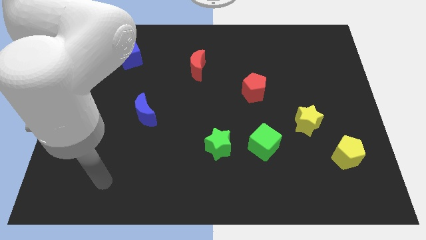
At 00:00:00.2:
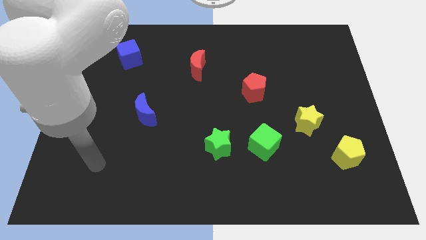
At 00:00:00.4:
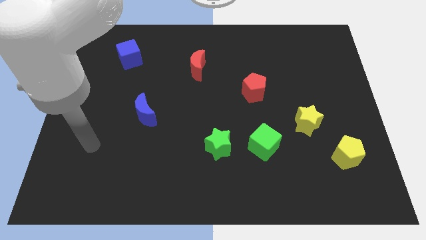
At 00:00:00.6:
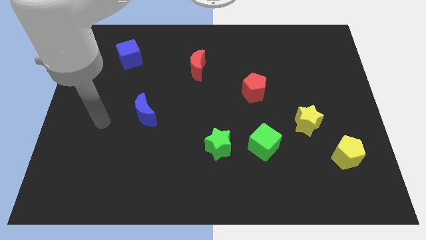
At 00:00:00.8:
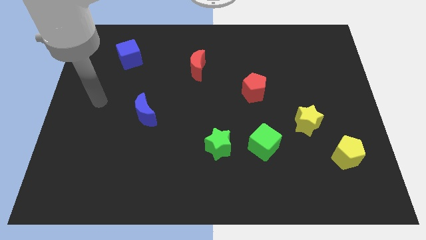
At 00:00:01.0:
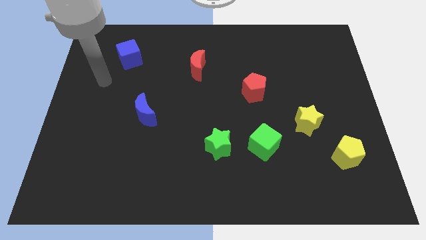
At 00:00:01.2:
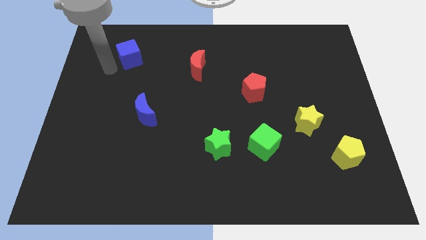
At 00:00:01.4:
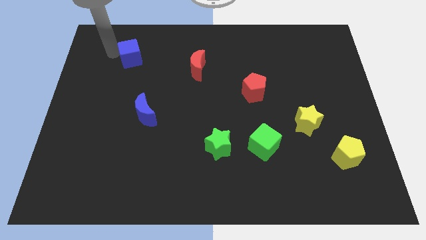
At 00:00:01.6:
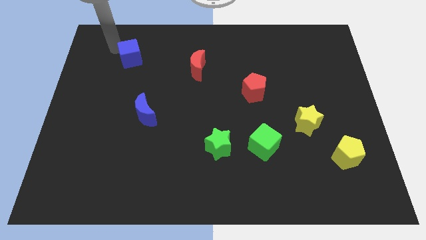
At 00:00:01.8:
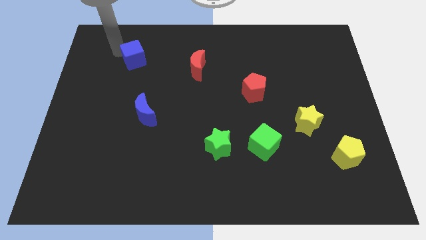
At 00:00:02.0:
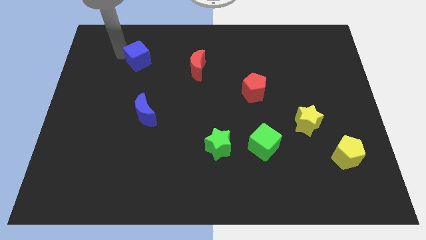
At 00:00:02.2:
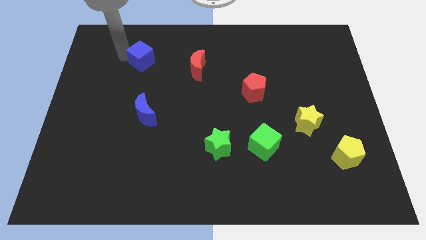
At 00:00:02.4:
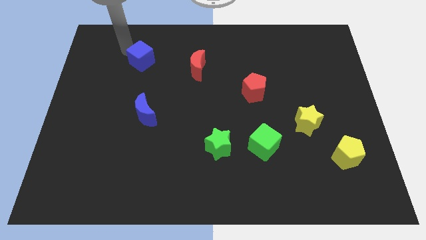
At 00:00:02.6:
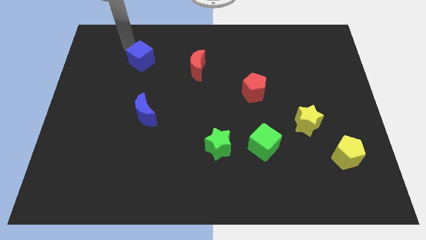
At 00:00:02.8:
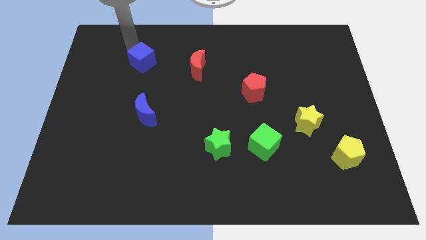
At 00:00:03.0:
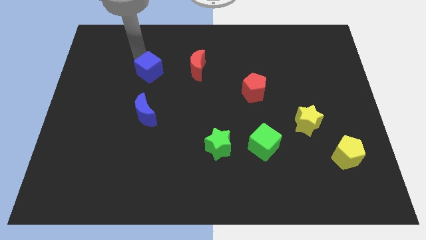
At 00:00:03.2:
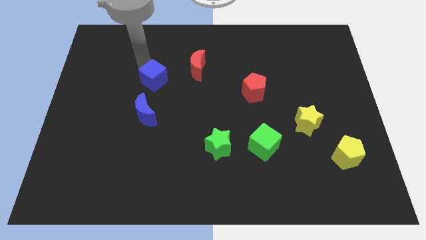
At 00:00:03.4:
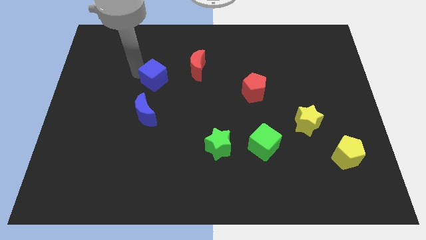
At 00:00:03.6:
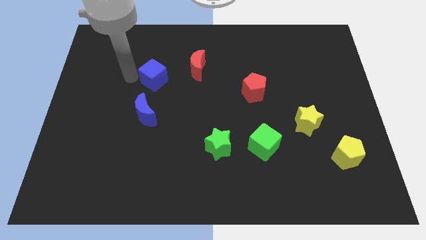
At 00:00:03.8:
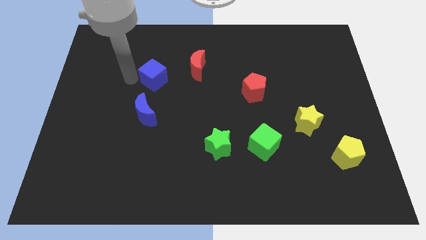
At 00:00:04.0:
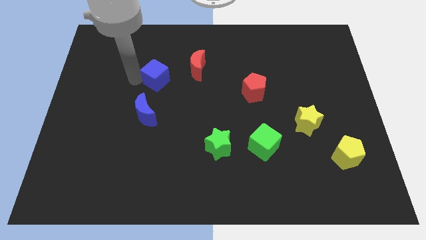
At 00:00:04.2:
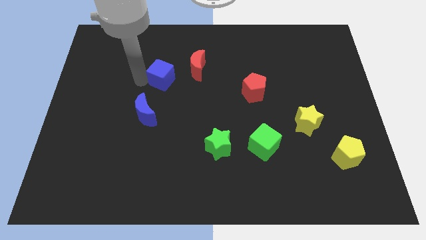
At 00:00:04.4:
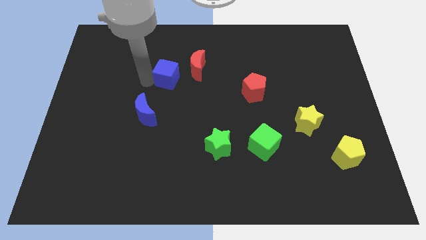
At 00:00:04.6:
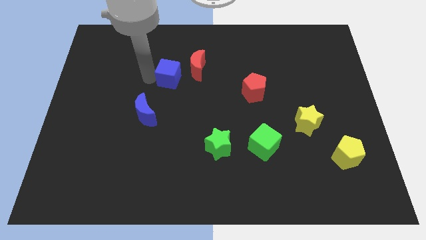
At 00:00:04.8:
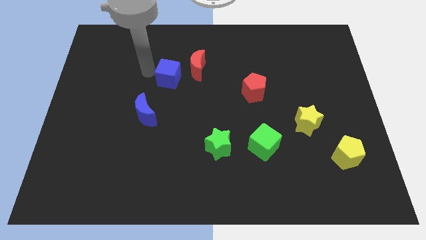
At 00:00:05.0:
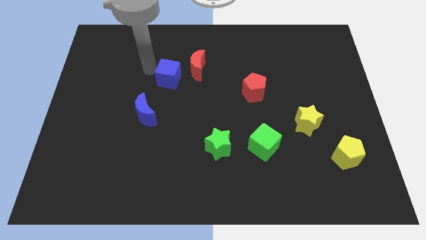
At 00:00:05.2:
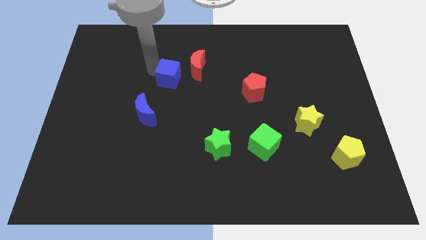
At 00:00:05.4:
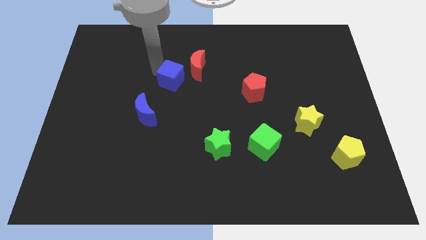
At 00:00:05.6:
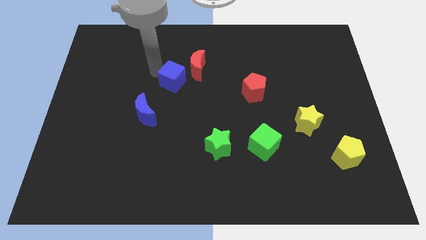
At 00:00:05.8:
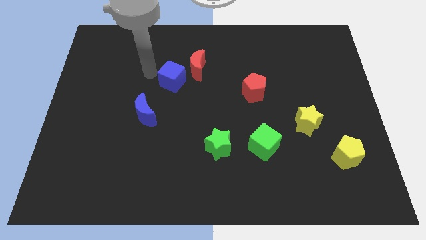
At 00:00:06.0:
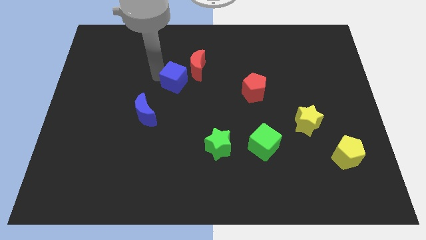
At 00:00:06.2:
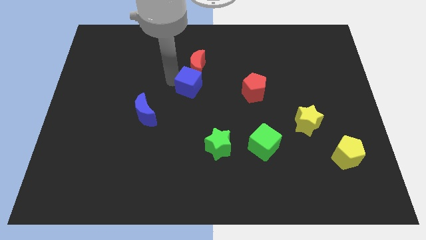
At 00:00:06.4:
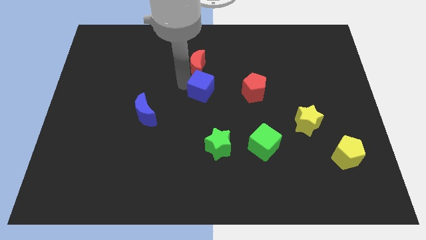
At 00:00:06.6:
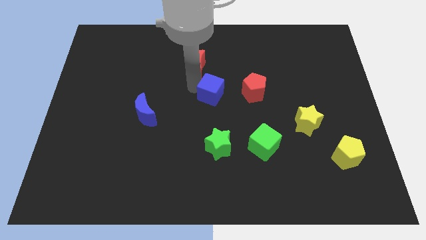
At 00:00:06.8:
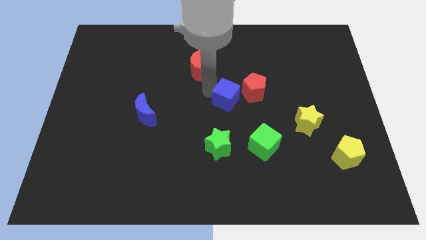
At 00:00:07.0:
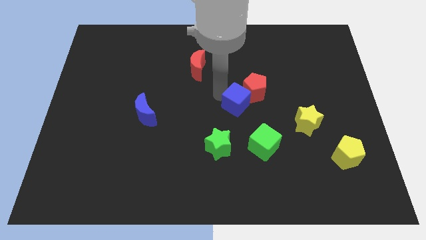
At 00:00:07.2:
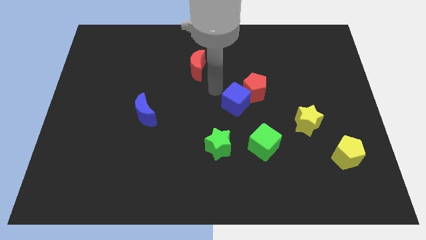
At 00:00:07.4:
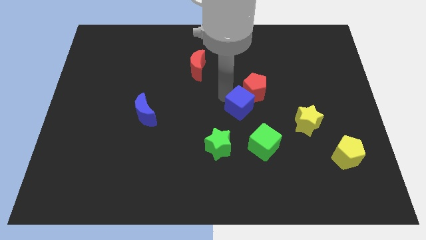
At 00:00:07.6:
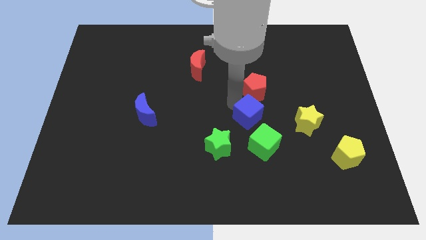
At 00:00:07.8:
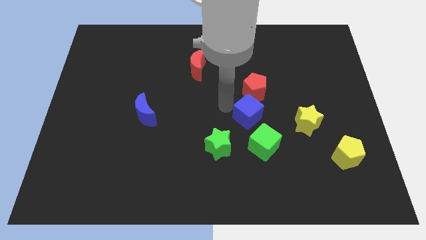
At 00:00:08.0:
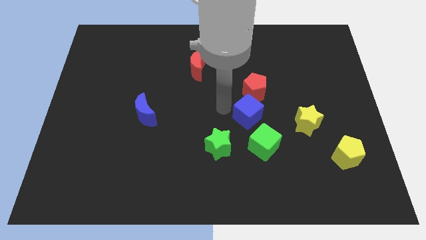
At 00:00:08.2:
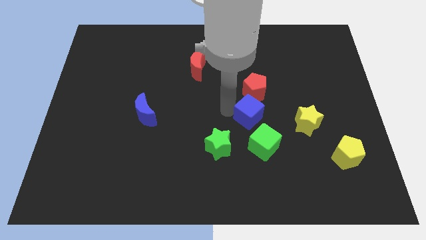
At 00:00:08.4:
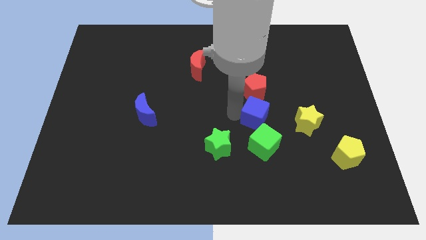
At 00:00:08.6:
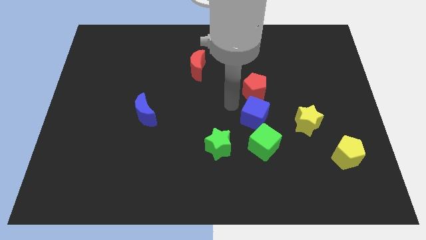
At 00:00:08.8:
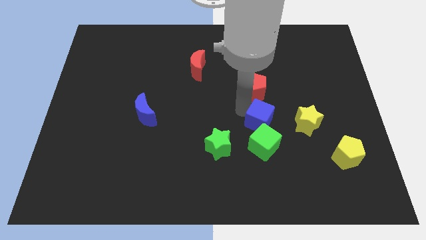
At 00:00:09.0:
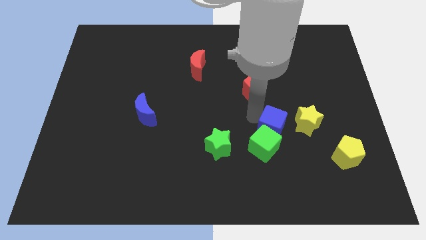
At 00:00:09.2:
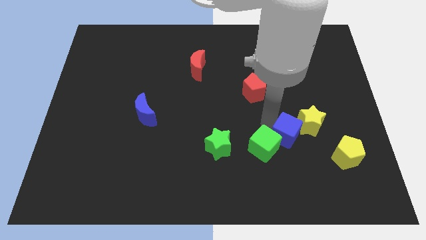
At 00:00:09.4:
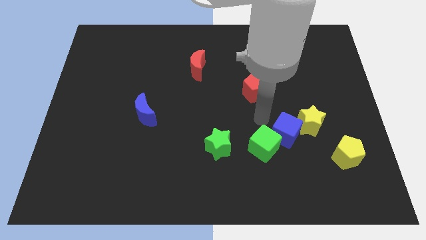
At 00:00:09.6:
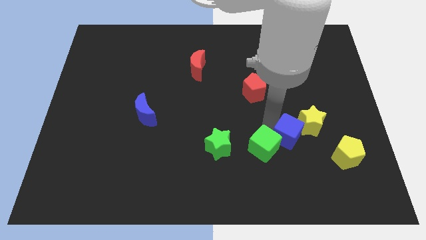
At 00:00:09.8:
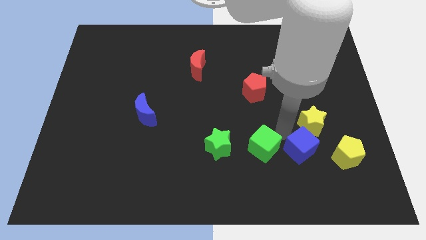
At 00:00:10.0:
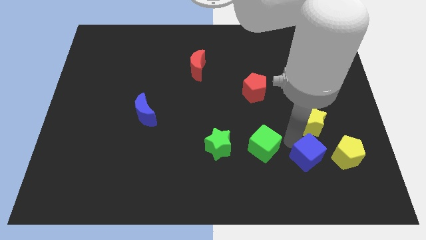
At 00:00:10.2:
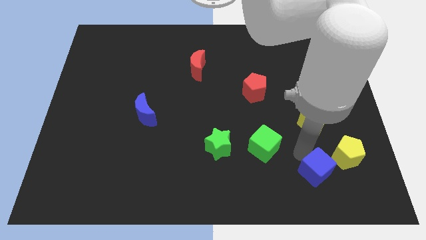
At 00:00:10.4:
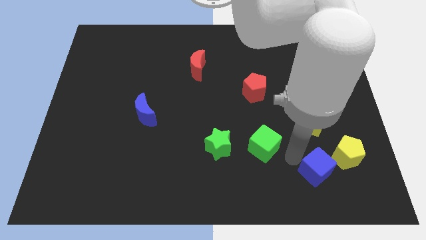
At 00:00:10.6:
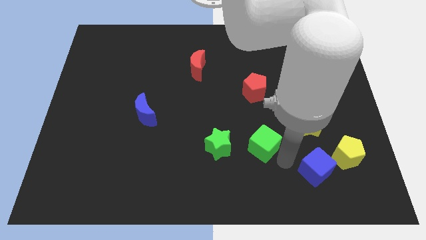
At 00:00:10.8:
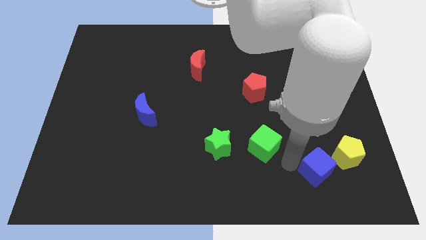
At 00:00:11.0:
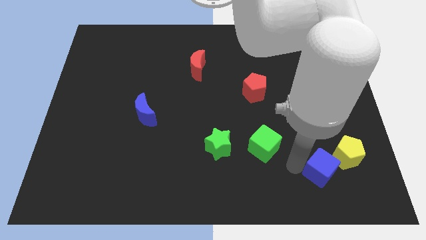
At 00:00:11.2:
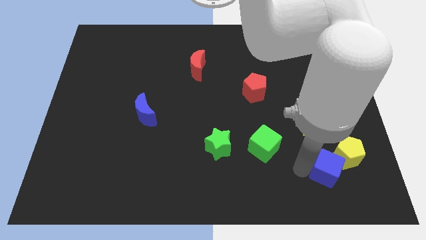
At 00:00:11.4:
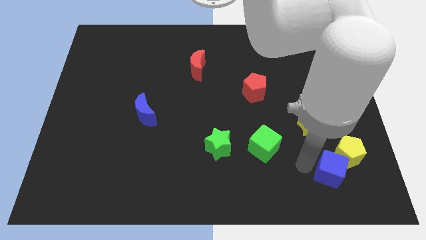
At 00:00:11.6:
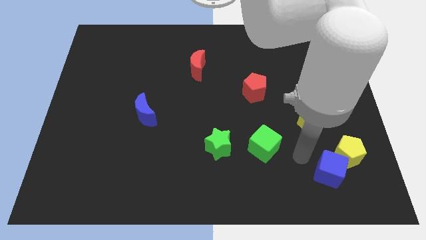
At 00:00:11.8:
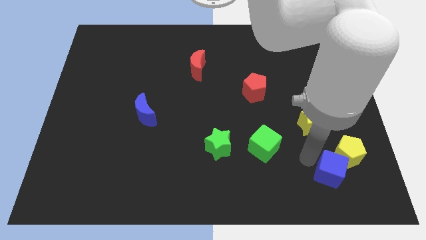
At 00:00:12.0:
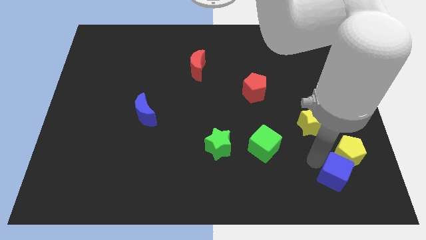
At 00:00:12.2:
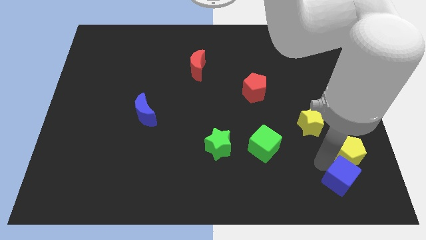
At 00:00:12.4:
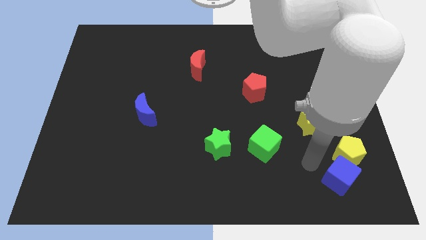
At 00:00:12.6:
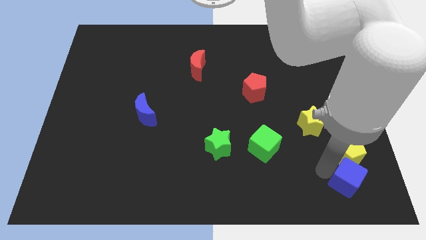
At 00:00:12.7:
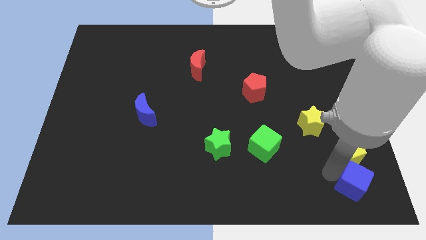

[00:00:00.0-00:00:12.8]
slide the blue cube to the lower right corner
